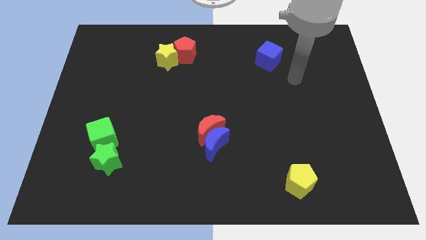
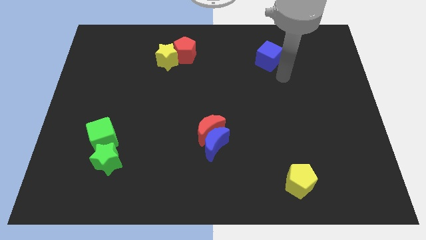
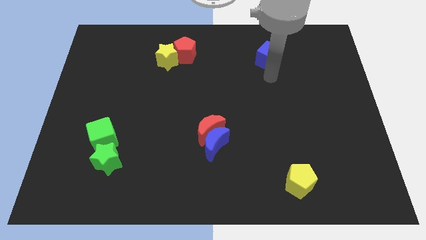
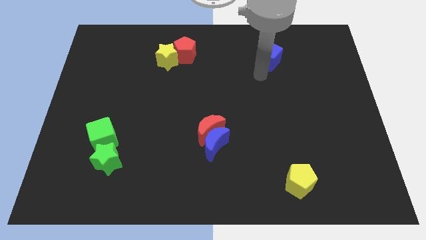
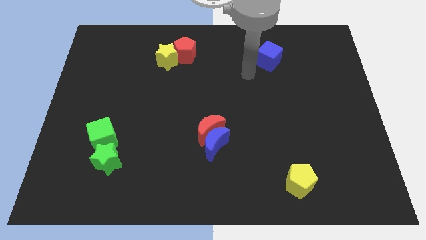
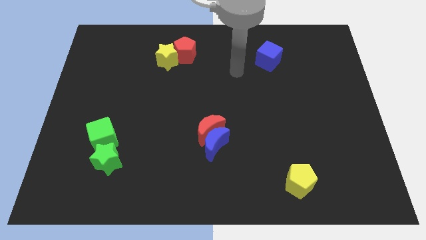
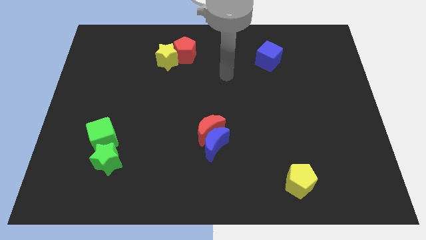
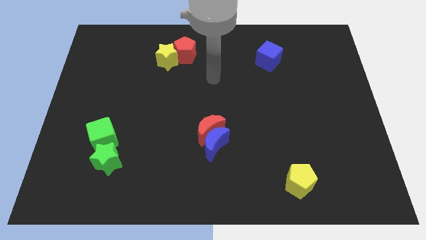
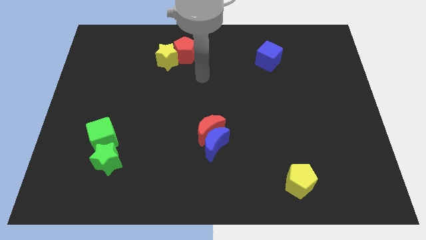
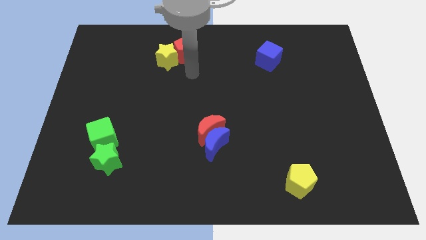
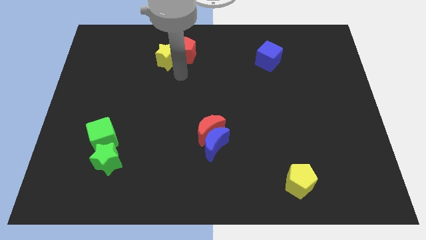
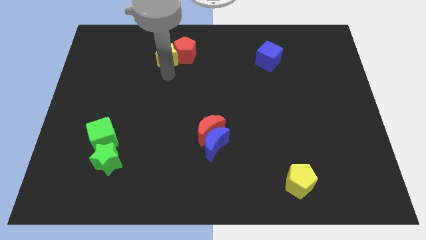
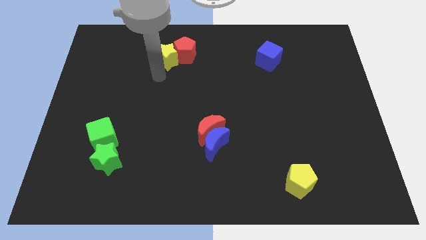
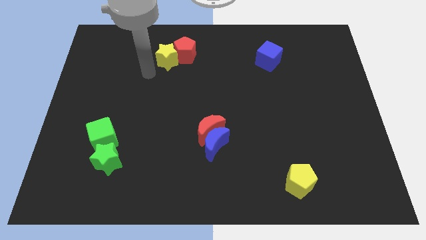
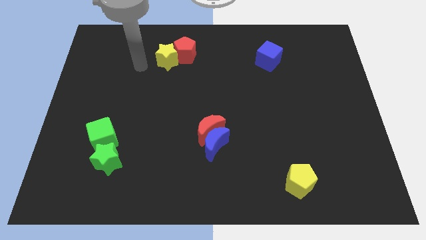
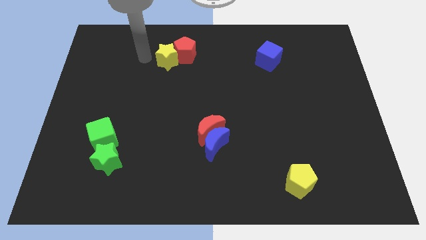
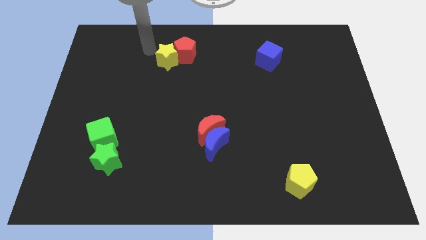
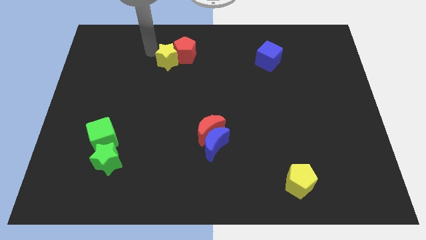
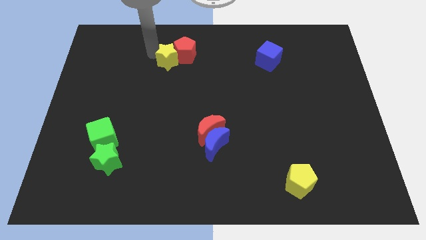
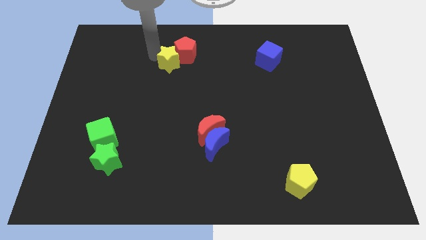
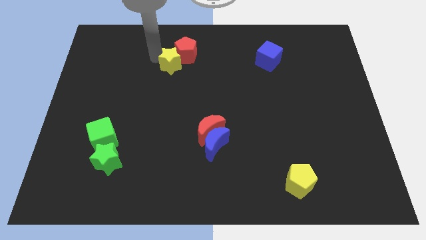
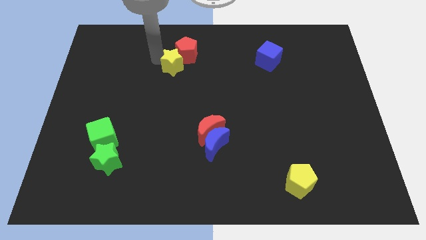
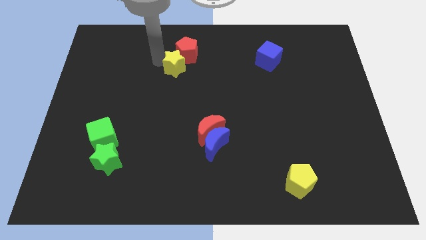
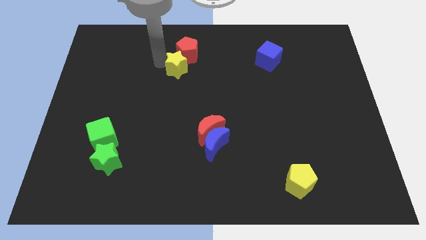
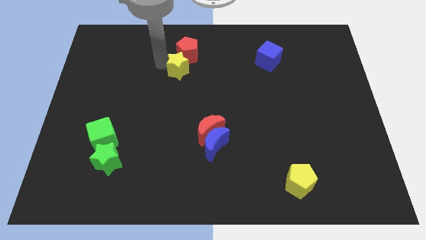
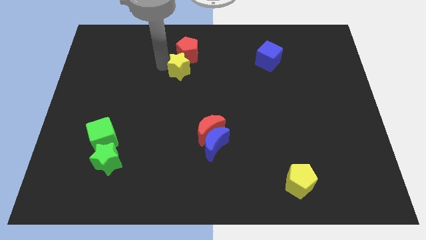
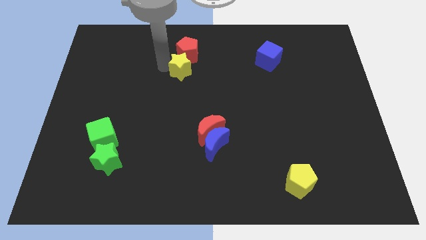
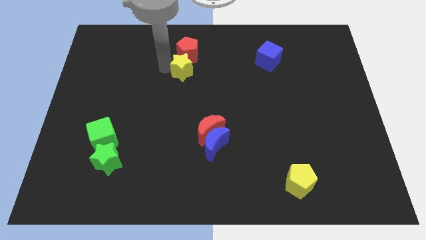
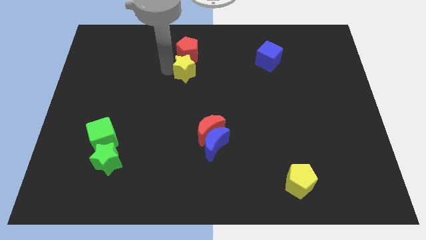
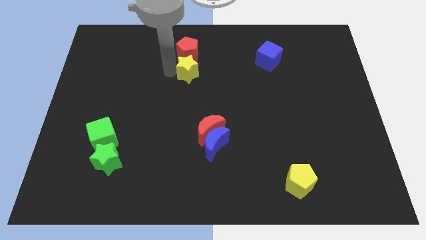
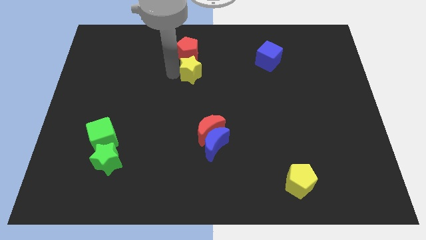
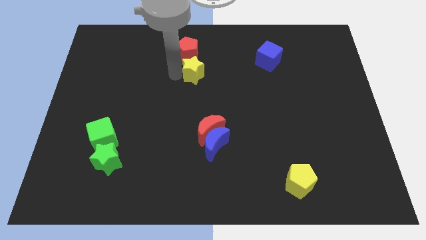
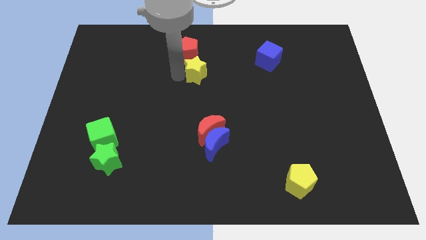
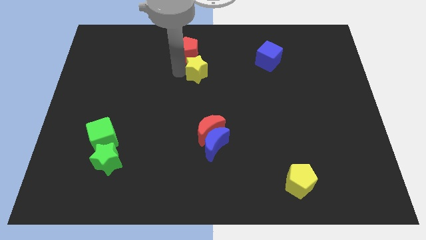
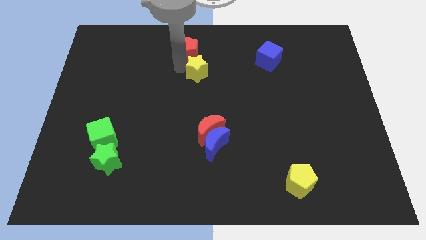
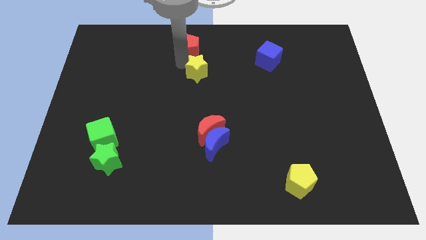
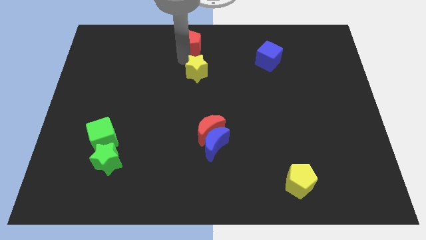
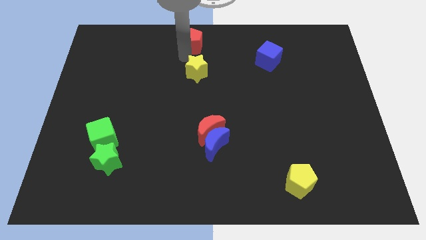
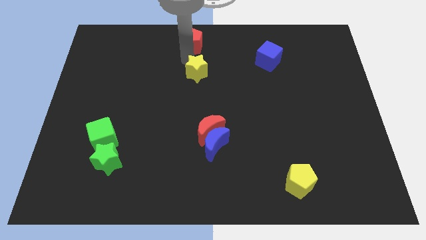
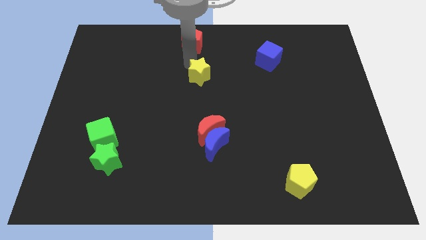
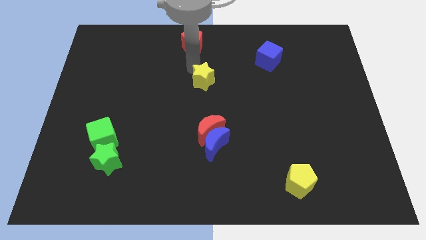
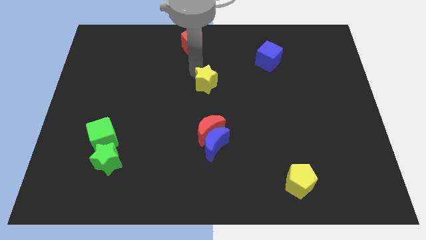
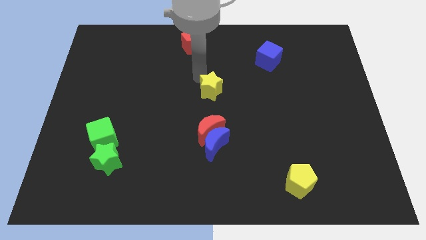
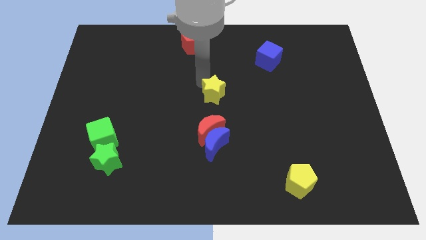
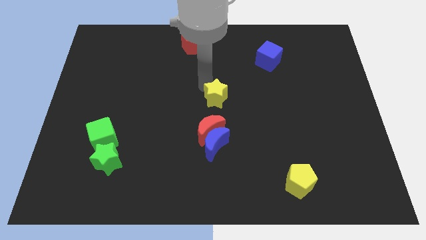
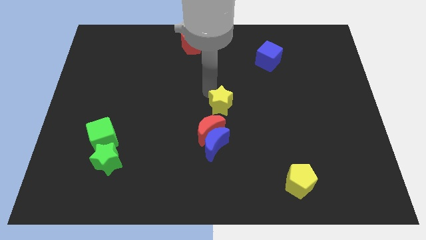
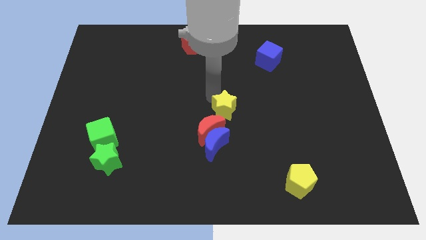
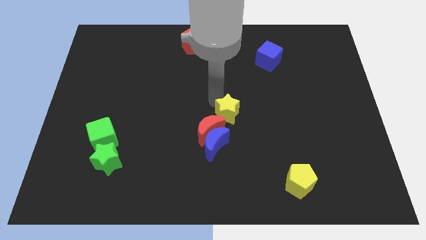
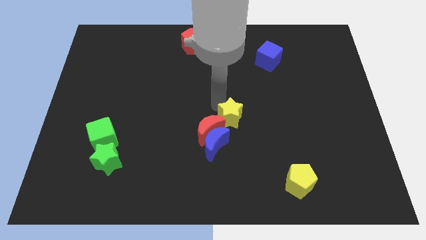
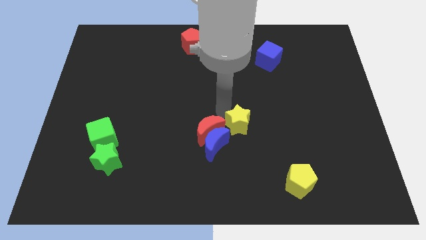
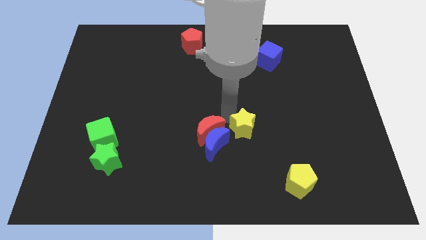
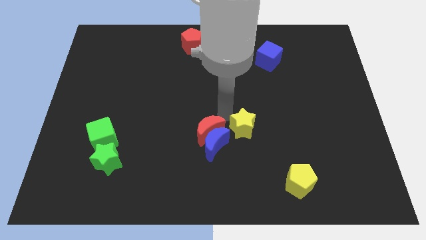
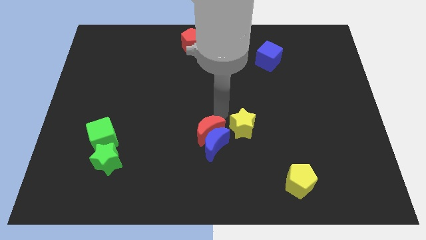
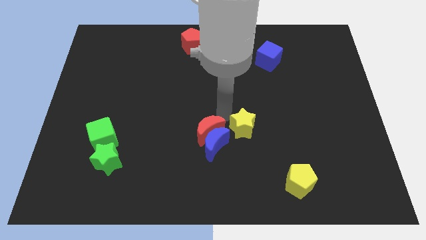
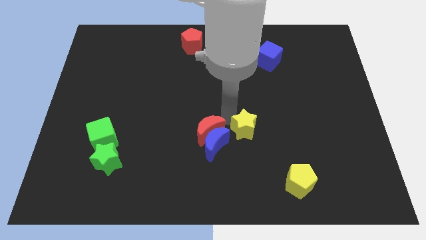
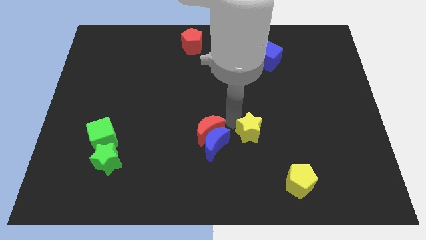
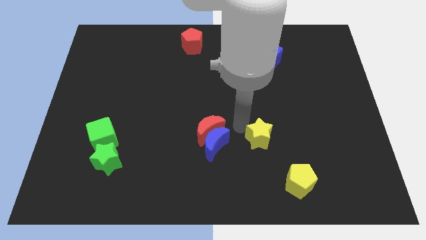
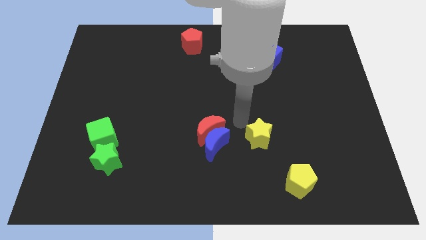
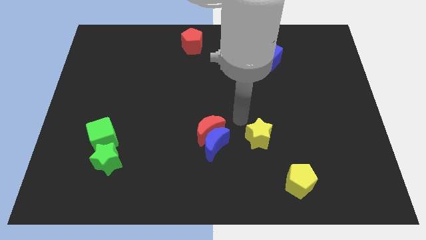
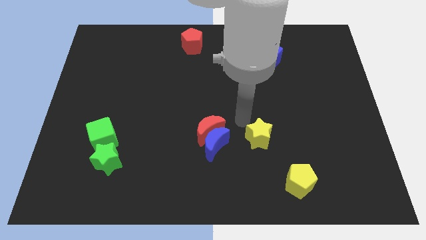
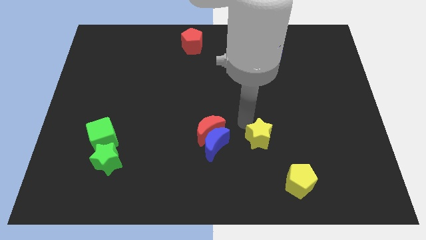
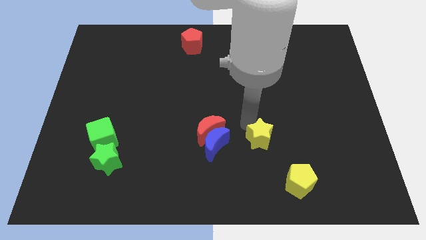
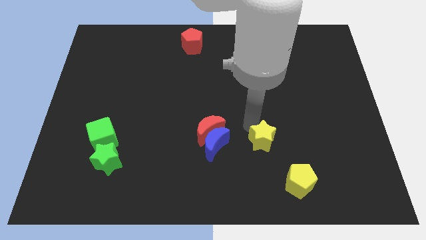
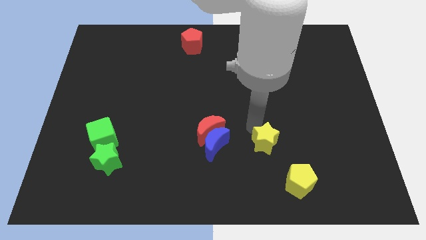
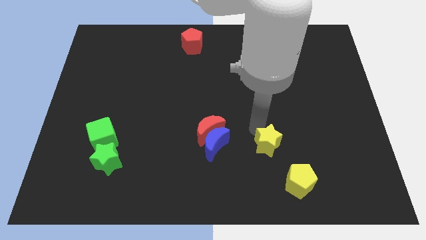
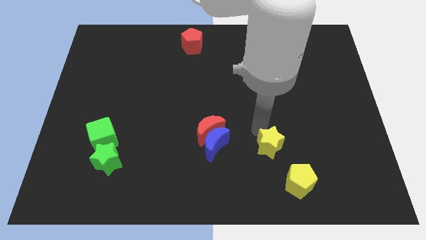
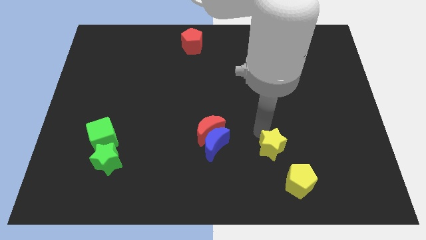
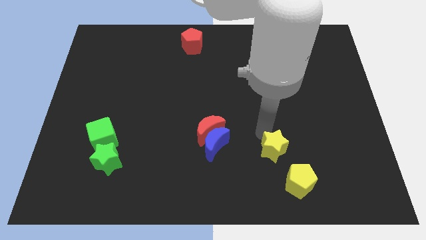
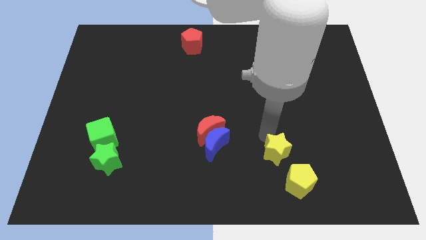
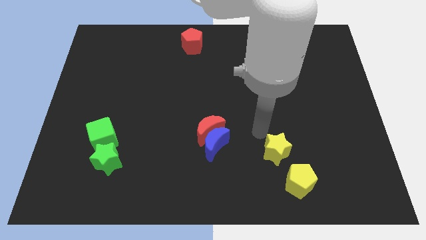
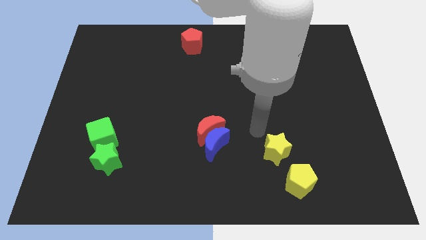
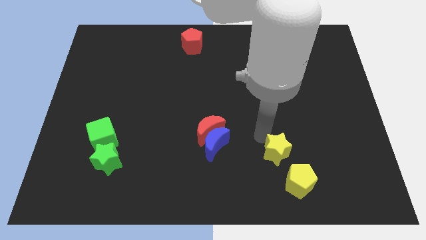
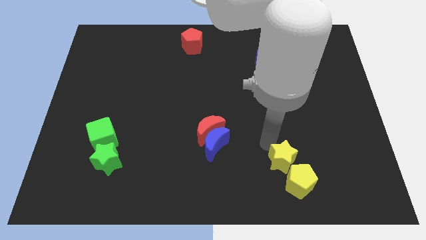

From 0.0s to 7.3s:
slide the yellow star towards the yellow pentagon
